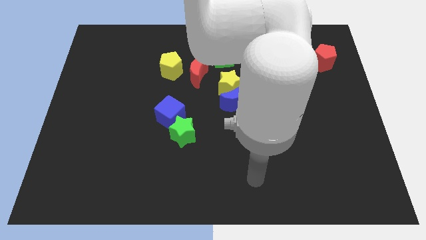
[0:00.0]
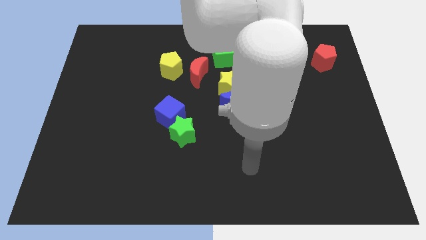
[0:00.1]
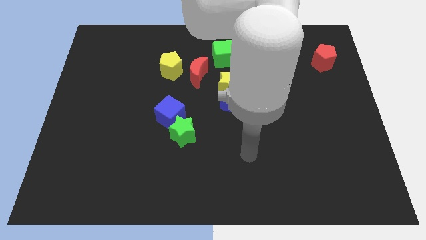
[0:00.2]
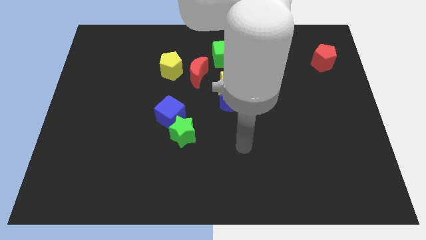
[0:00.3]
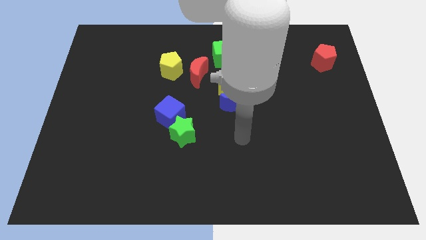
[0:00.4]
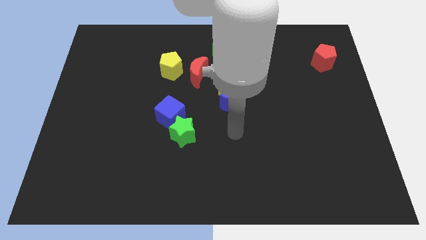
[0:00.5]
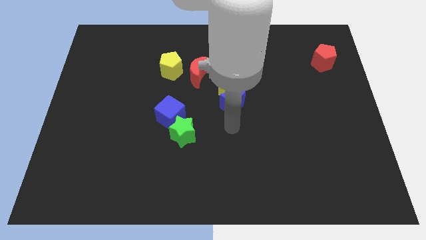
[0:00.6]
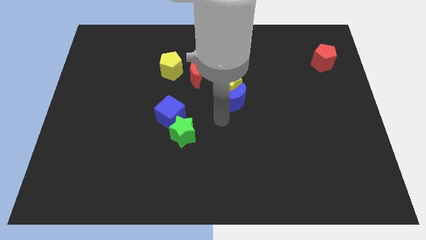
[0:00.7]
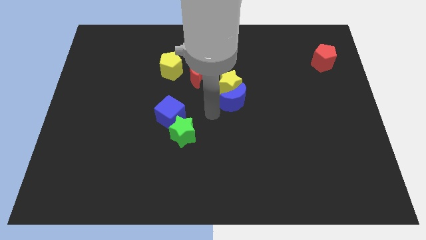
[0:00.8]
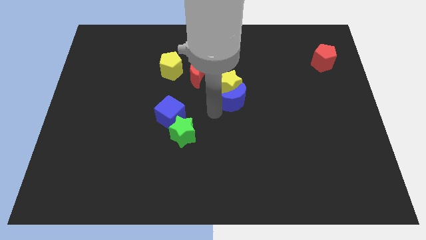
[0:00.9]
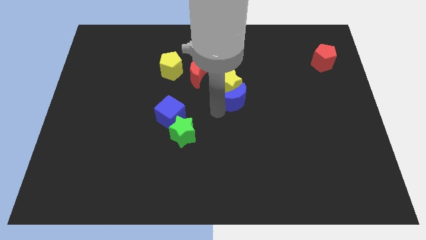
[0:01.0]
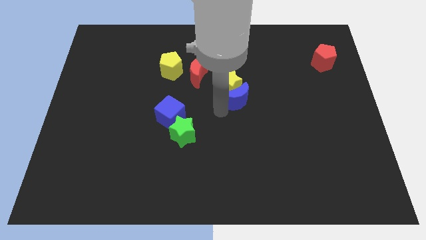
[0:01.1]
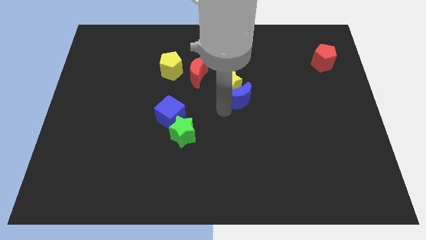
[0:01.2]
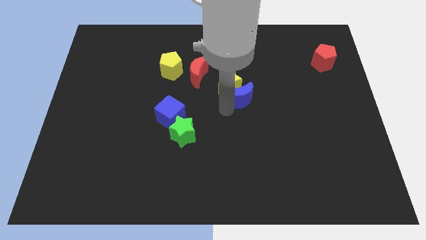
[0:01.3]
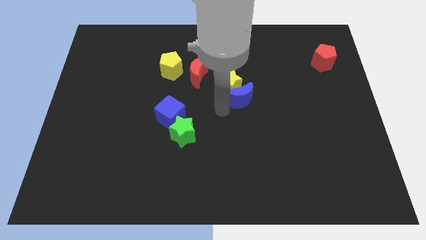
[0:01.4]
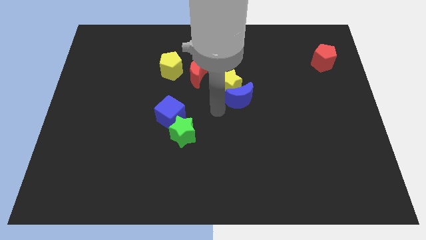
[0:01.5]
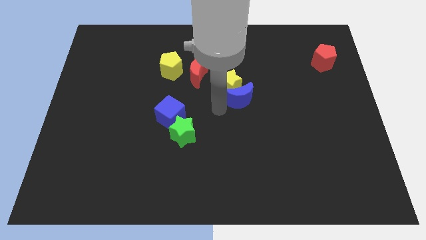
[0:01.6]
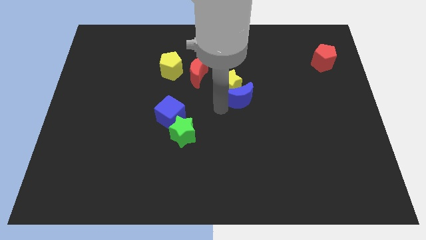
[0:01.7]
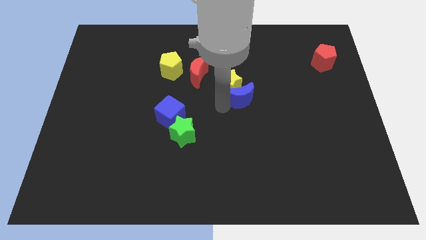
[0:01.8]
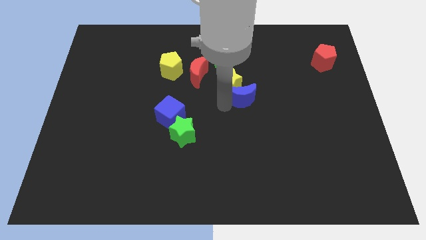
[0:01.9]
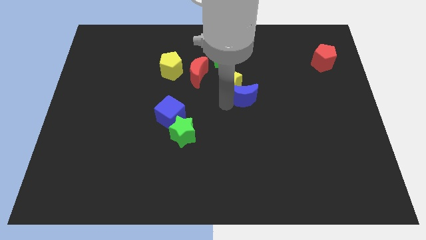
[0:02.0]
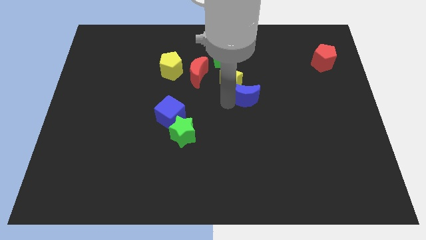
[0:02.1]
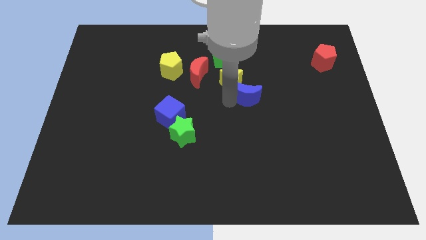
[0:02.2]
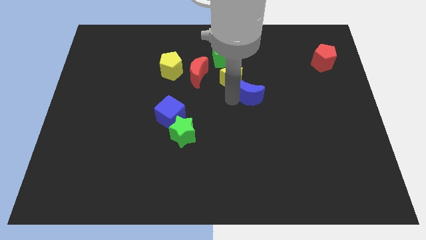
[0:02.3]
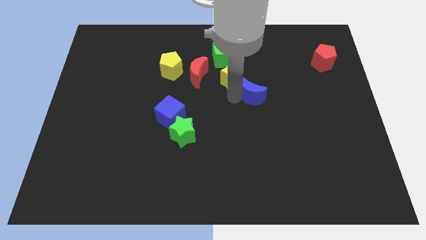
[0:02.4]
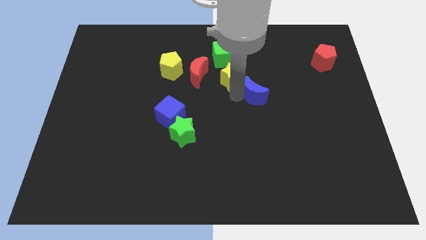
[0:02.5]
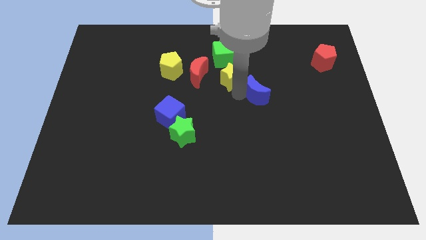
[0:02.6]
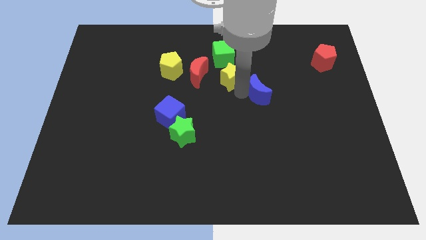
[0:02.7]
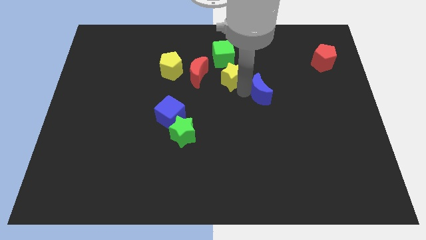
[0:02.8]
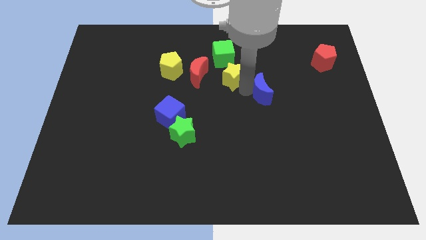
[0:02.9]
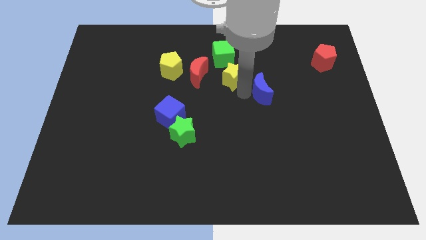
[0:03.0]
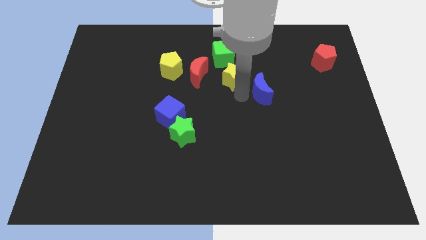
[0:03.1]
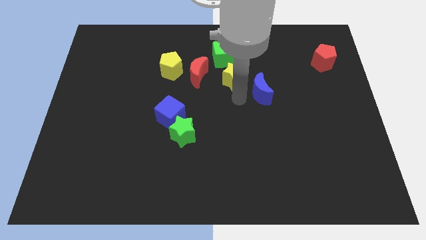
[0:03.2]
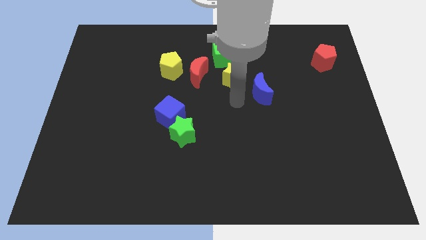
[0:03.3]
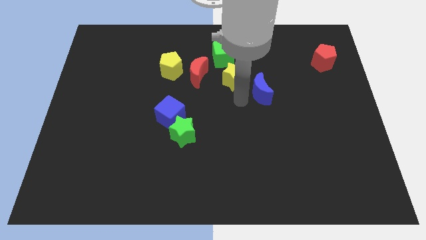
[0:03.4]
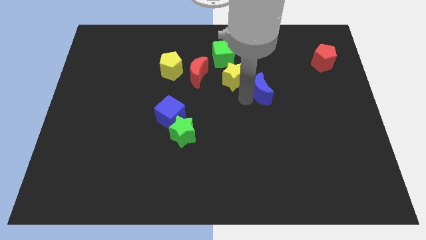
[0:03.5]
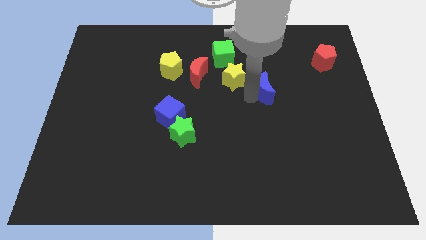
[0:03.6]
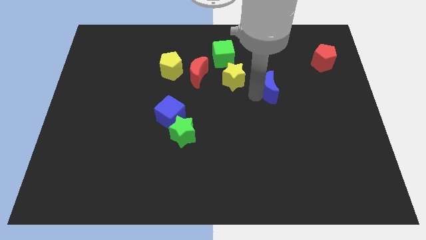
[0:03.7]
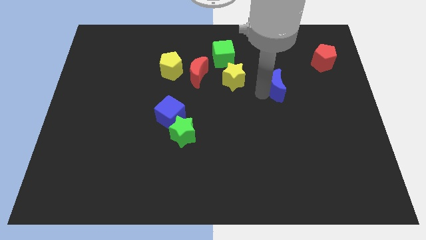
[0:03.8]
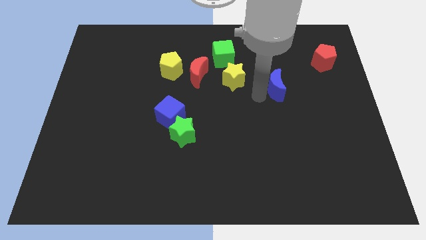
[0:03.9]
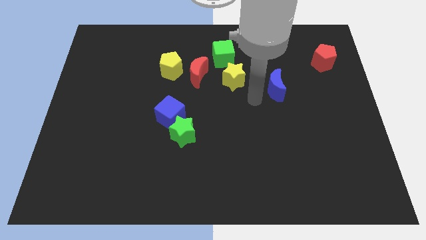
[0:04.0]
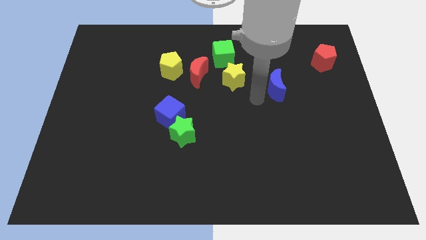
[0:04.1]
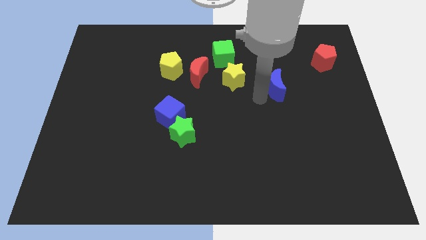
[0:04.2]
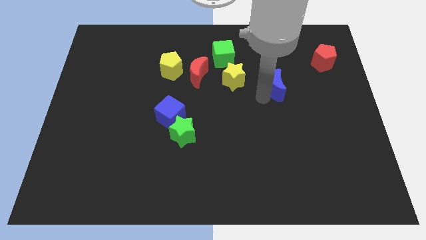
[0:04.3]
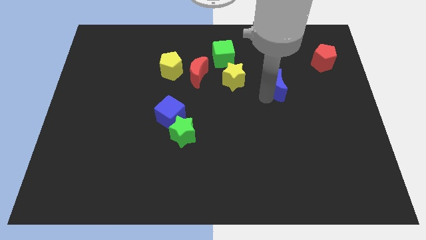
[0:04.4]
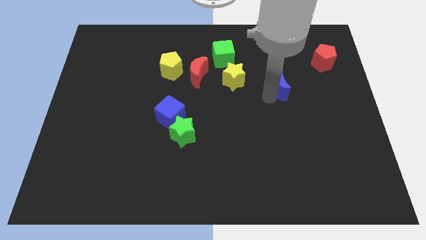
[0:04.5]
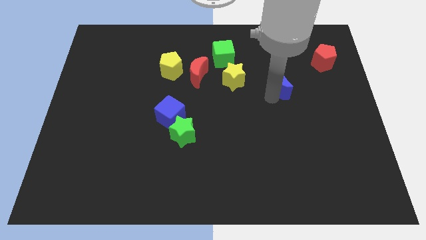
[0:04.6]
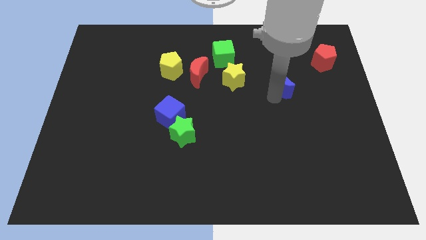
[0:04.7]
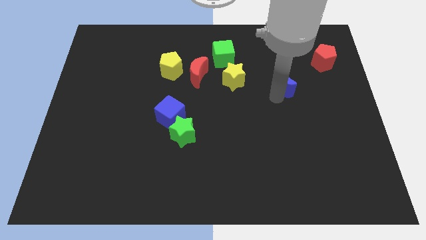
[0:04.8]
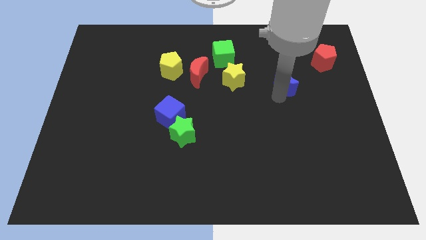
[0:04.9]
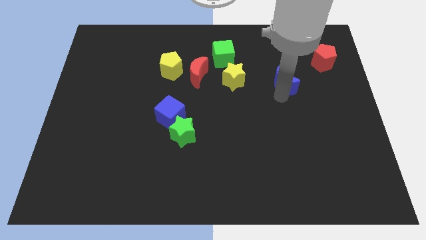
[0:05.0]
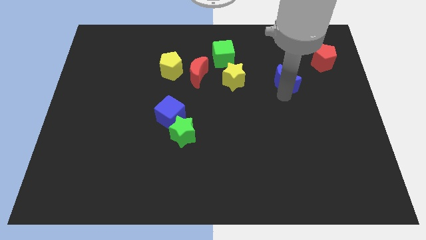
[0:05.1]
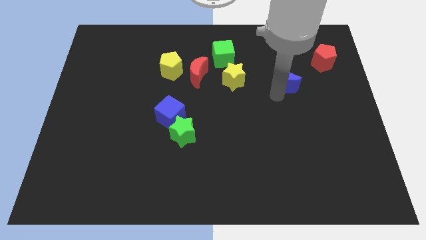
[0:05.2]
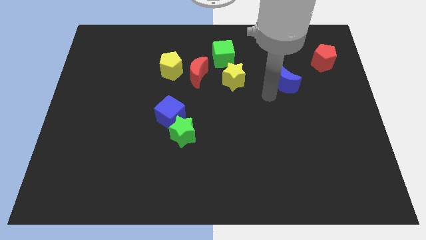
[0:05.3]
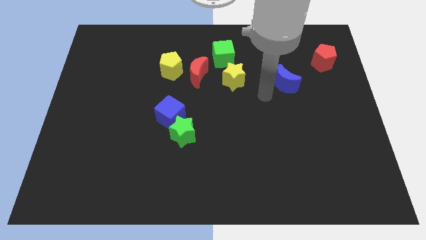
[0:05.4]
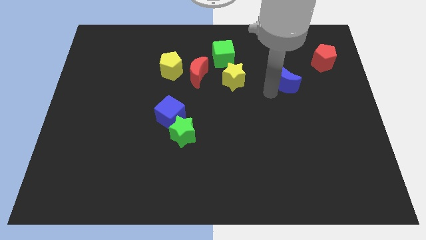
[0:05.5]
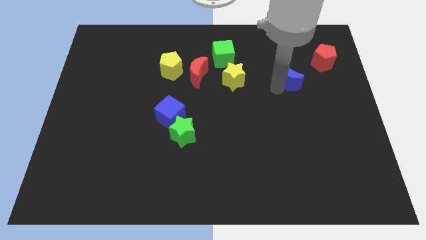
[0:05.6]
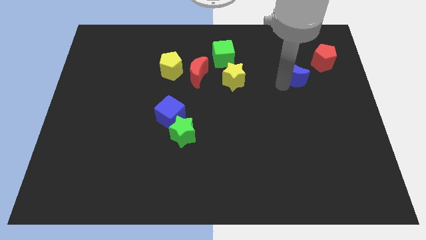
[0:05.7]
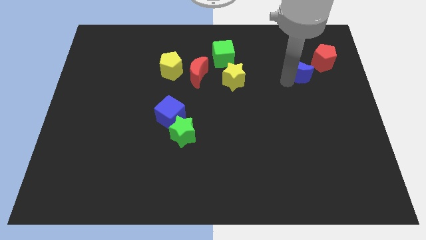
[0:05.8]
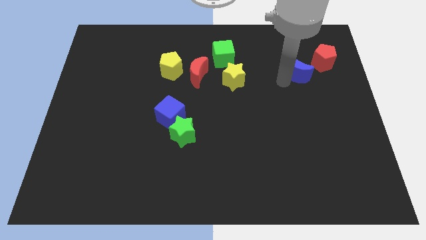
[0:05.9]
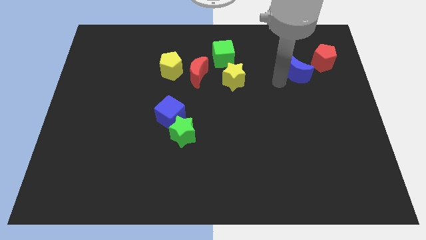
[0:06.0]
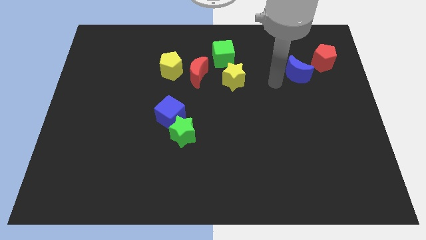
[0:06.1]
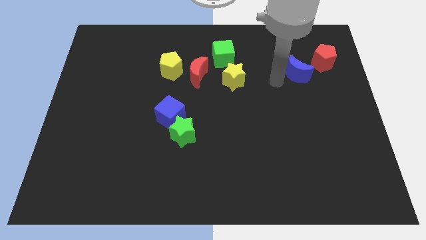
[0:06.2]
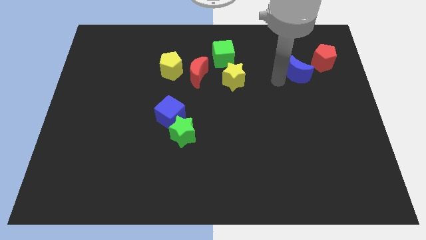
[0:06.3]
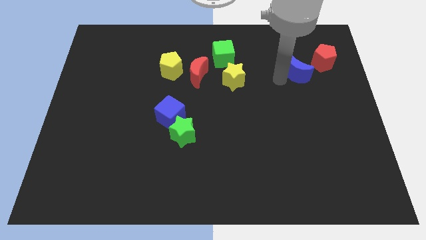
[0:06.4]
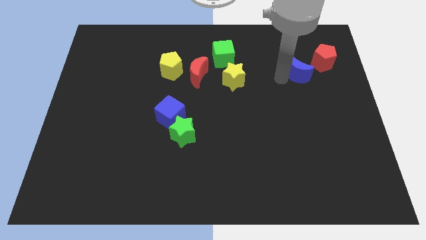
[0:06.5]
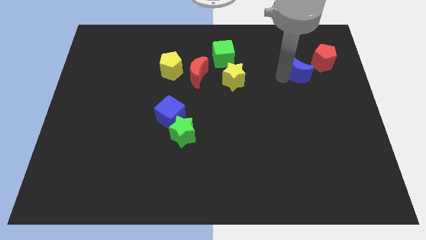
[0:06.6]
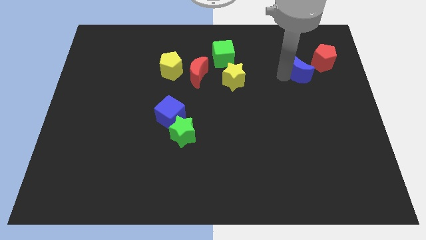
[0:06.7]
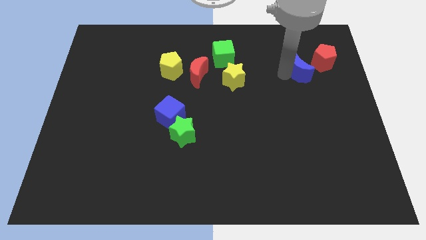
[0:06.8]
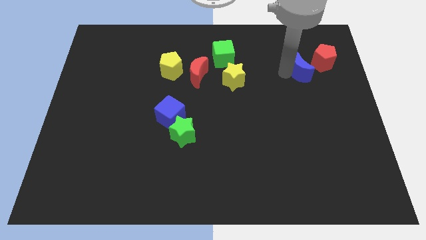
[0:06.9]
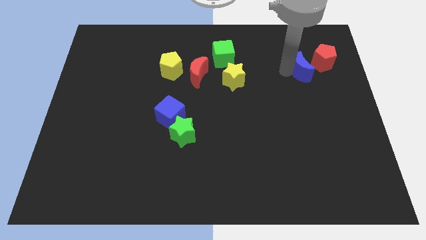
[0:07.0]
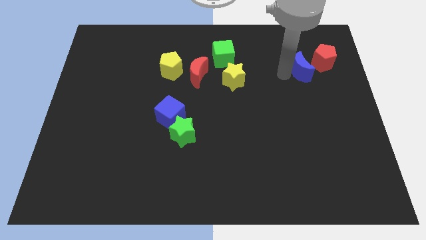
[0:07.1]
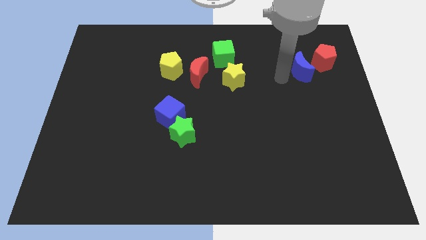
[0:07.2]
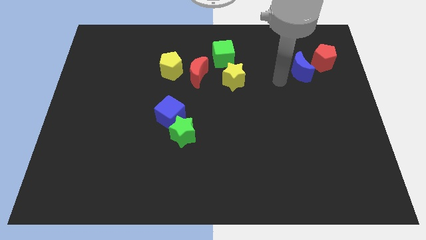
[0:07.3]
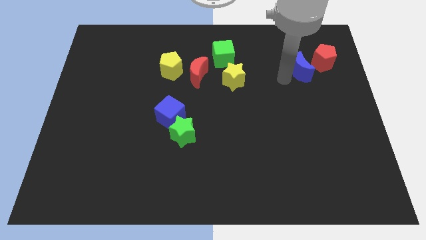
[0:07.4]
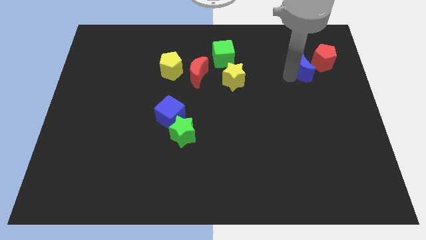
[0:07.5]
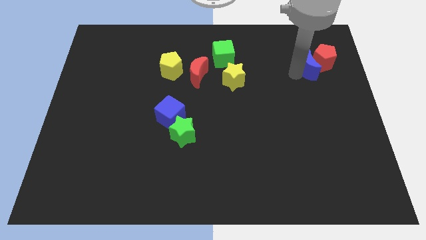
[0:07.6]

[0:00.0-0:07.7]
slide the blue moon to the red pentagon
